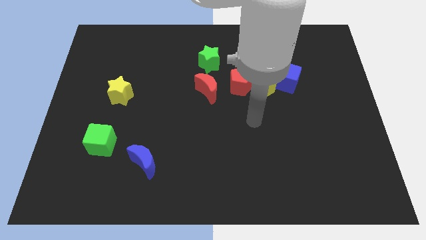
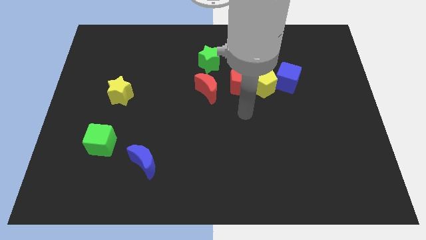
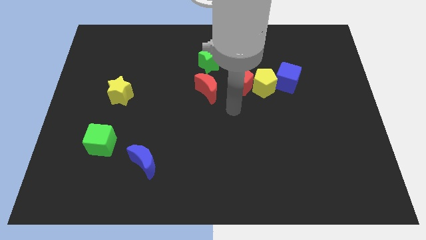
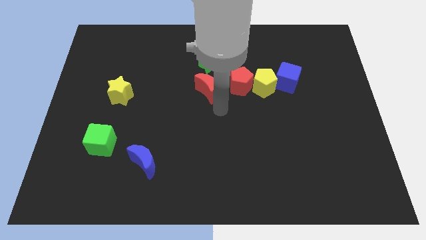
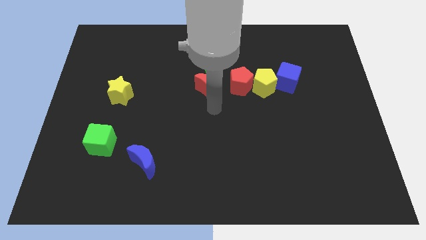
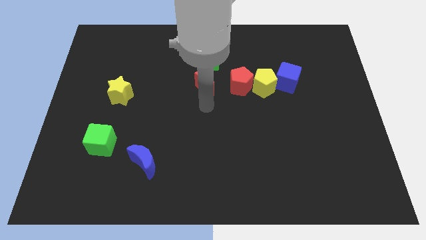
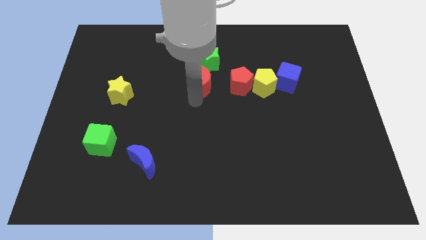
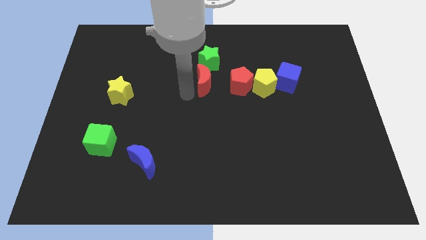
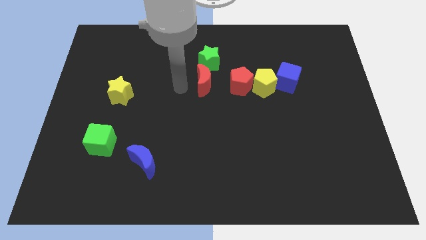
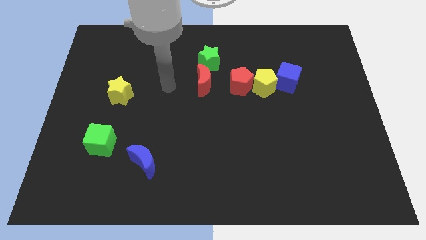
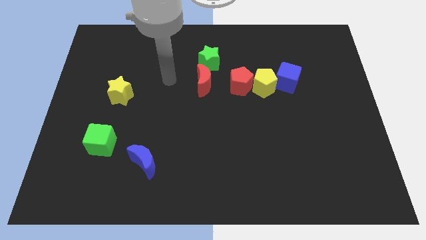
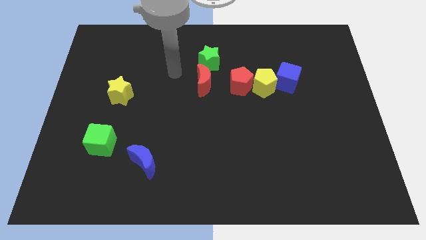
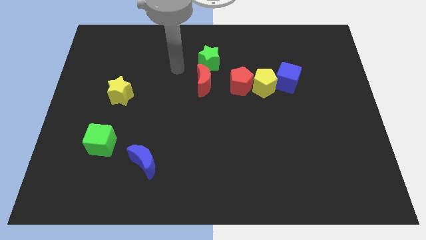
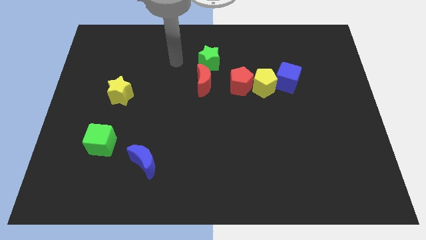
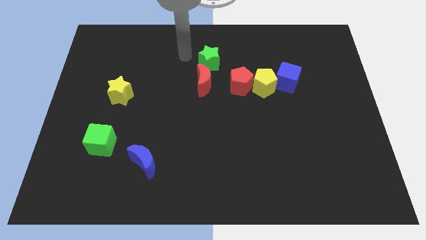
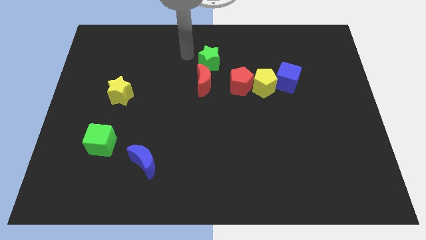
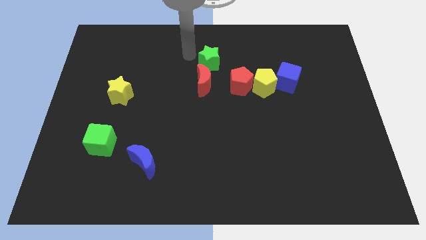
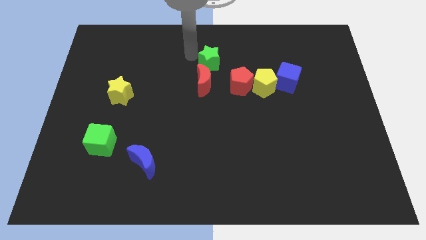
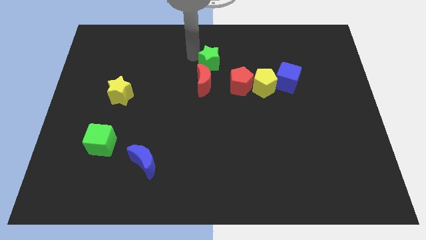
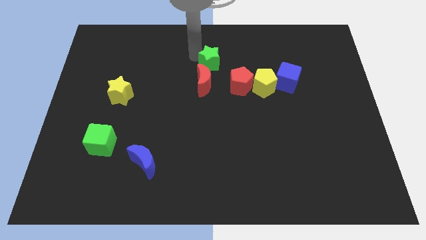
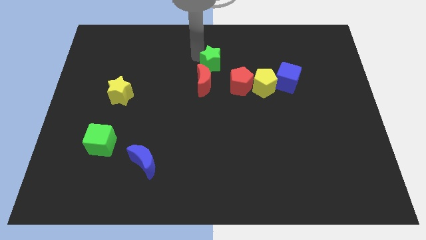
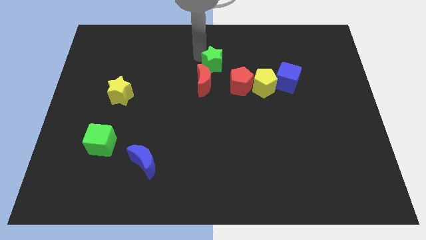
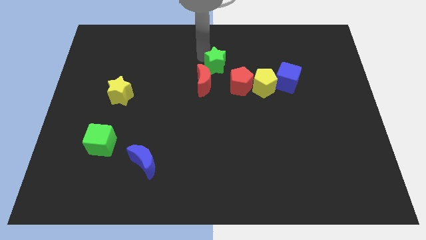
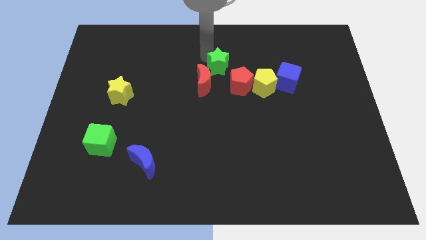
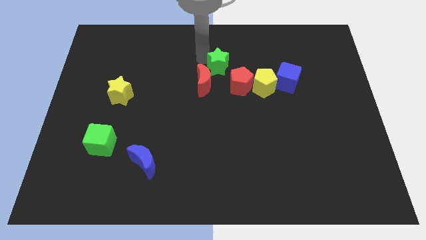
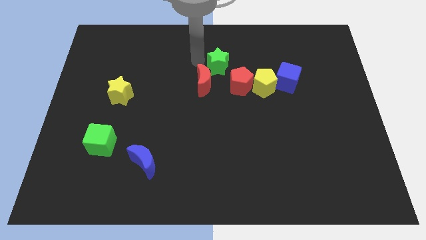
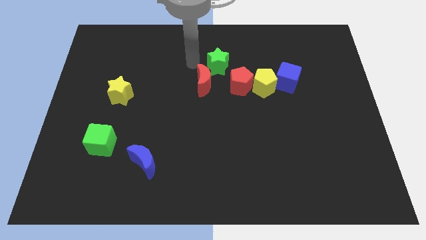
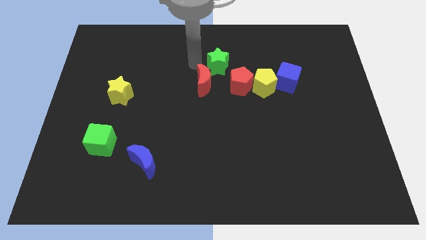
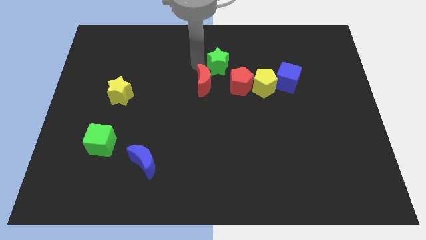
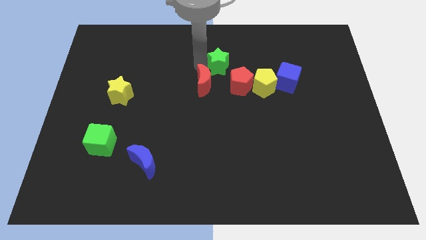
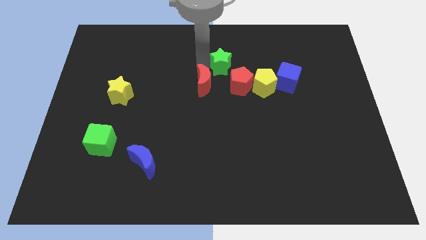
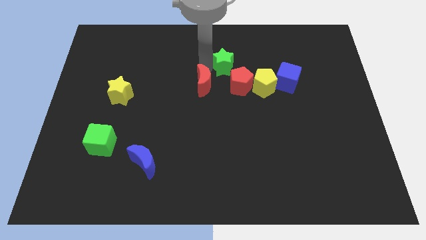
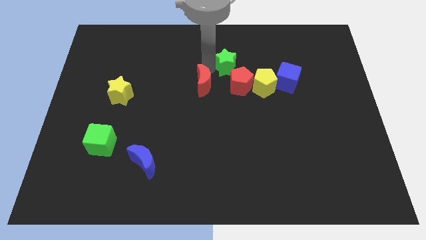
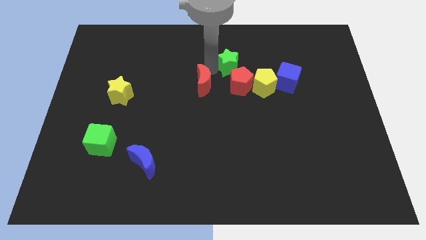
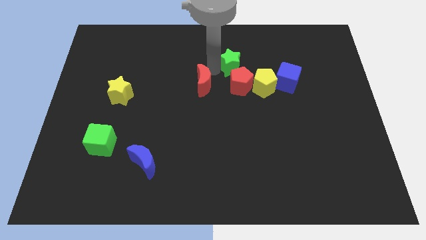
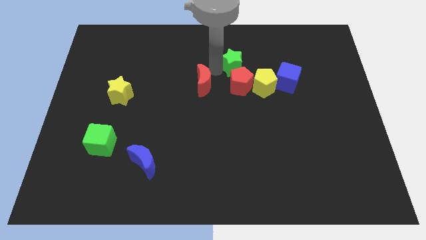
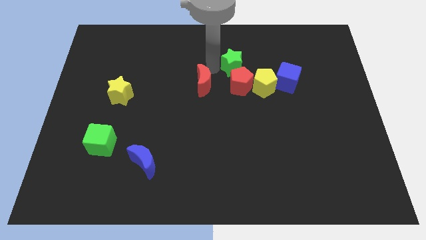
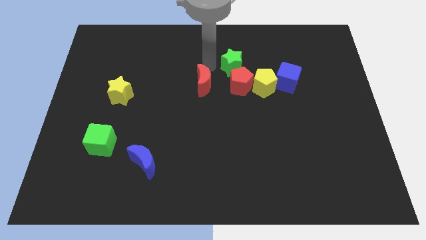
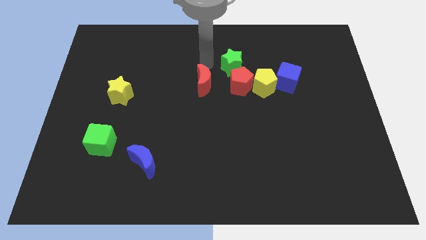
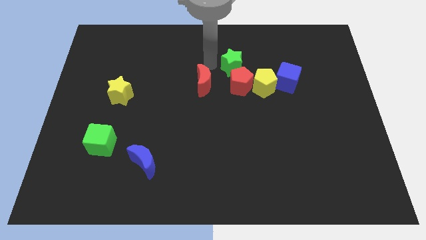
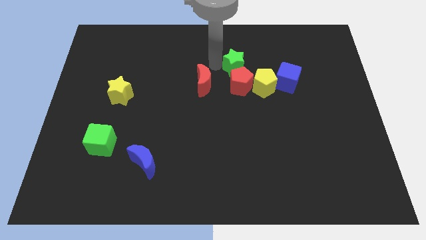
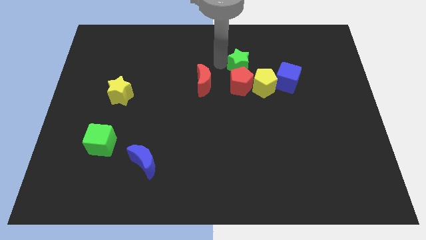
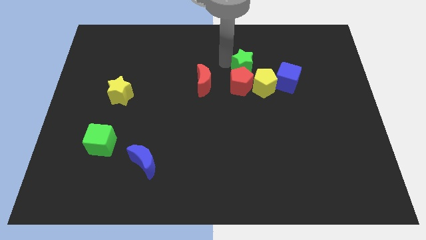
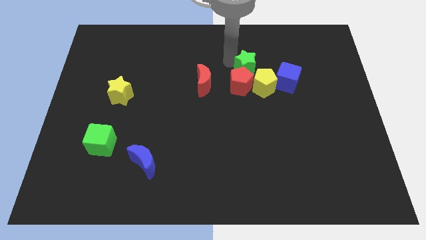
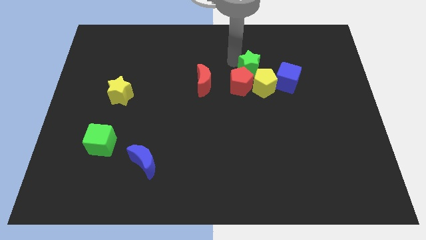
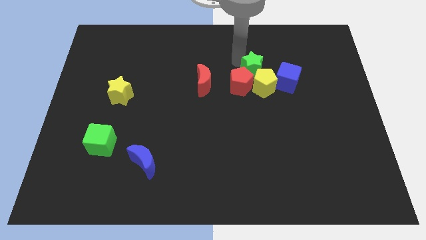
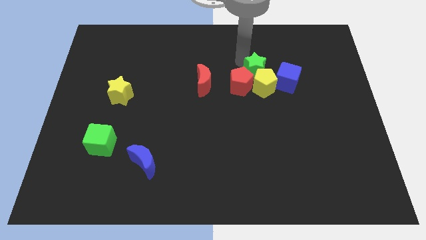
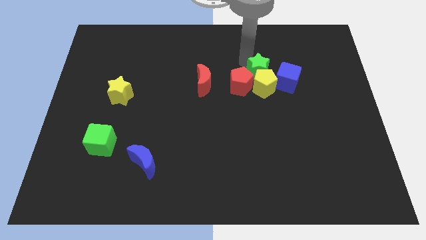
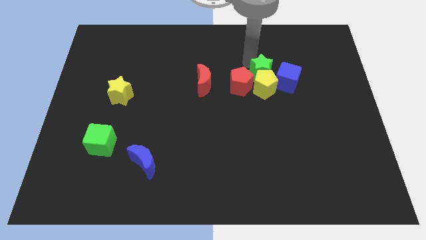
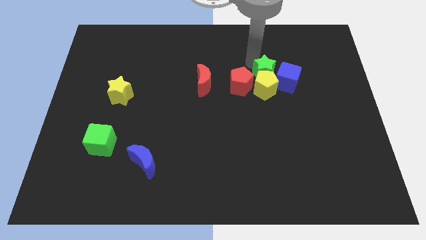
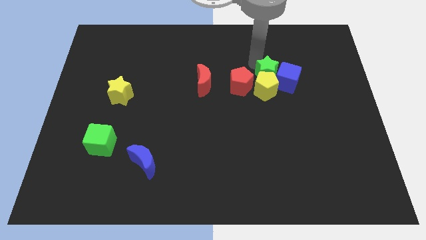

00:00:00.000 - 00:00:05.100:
push the green star towards the blue cube

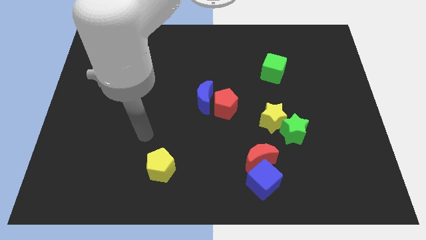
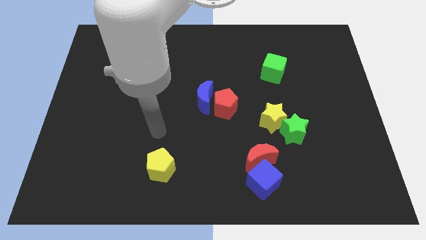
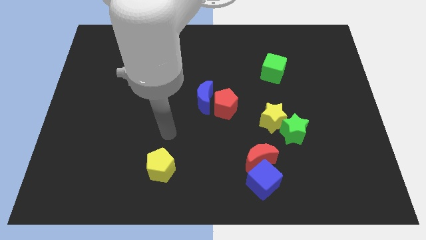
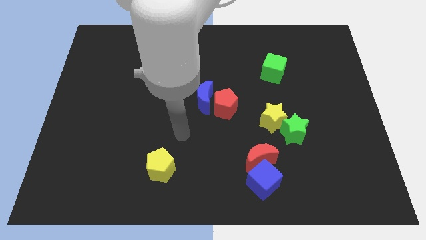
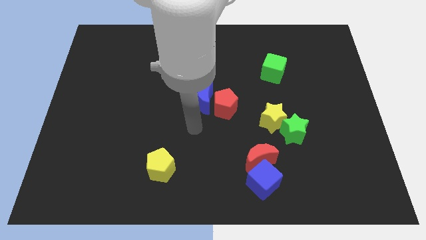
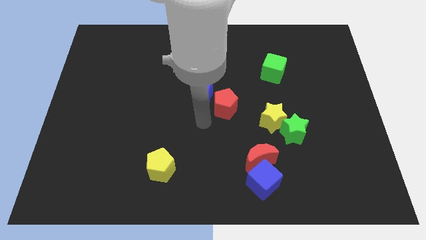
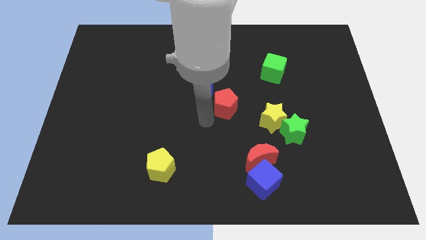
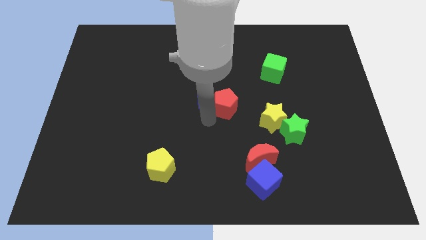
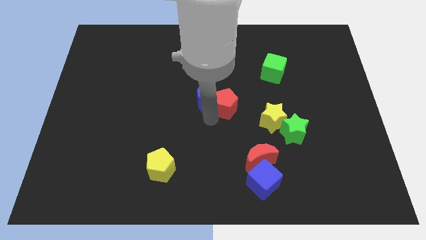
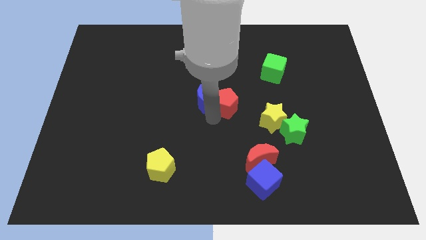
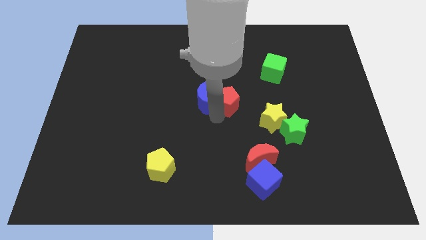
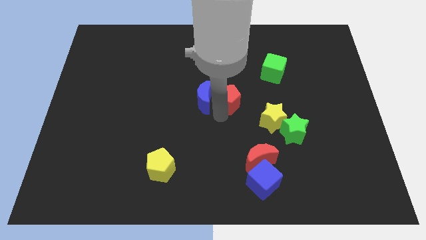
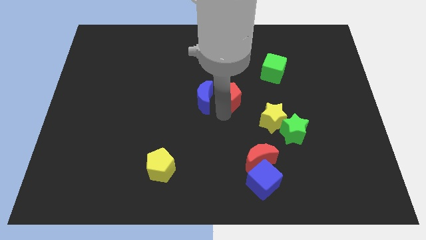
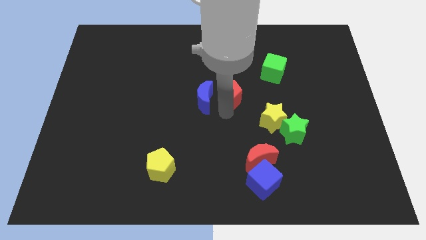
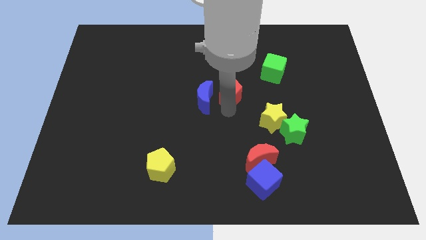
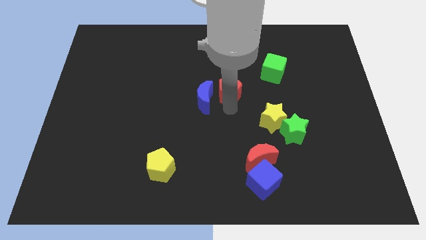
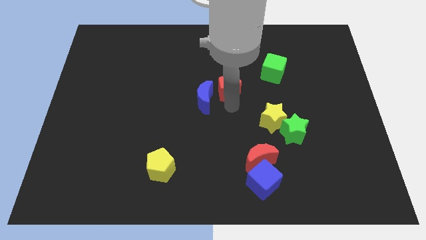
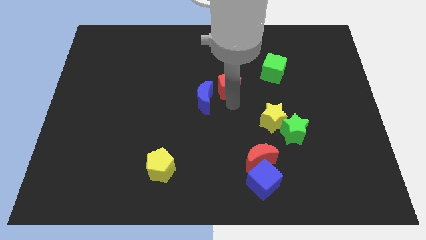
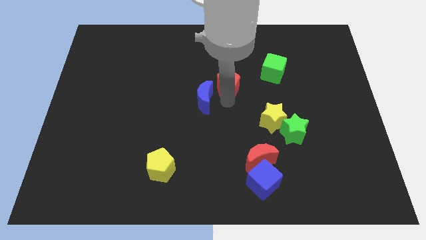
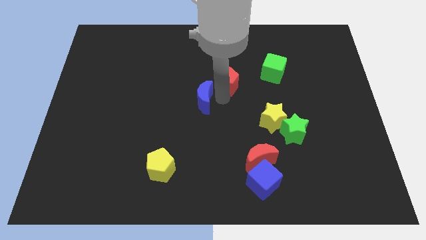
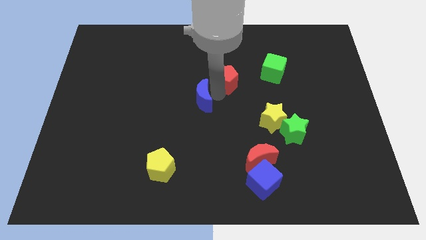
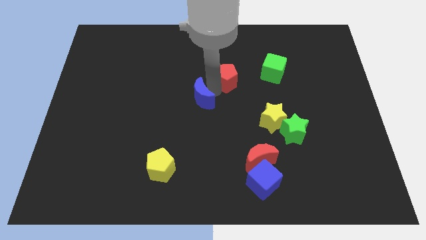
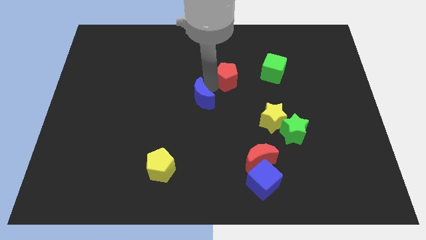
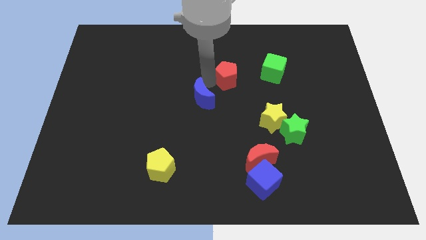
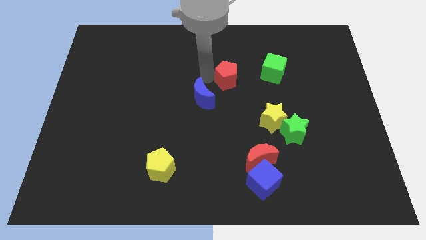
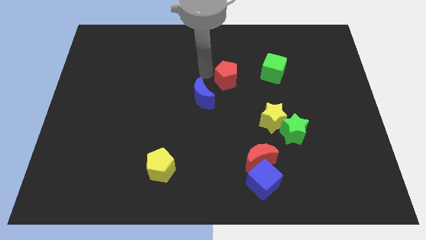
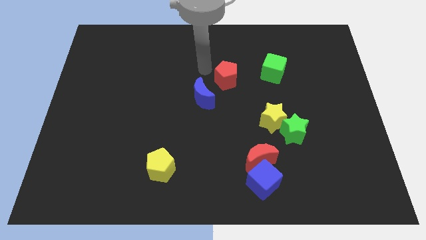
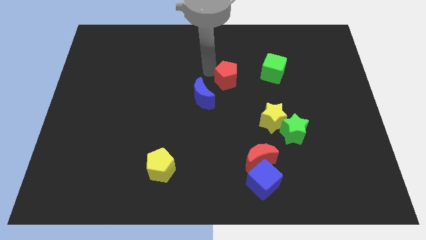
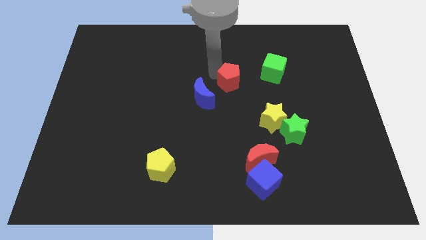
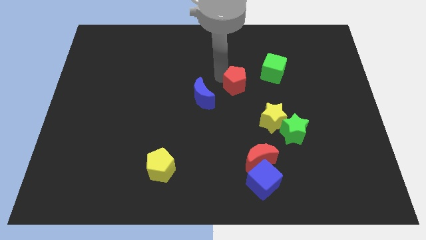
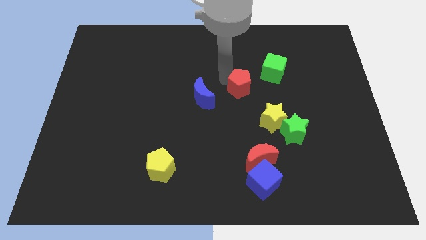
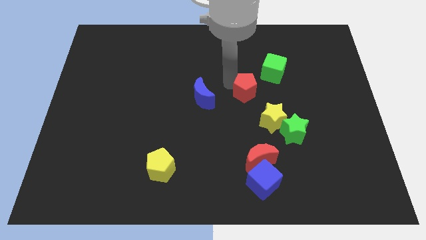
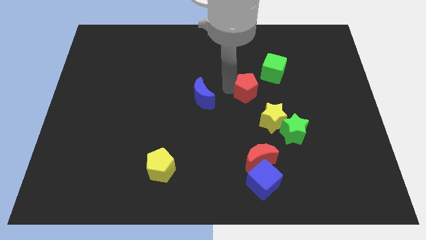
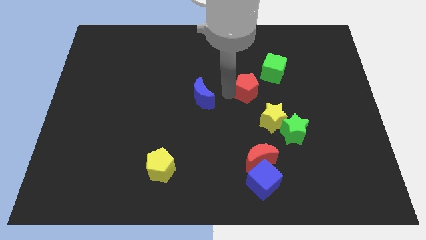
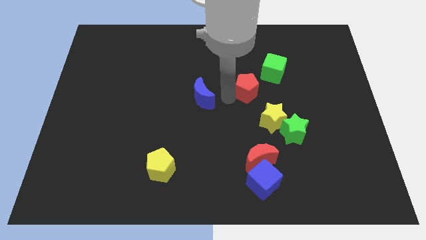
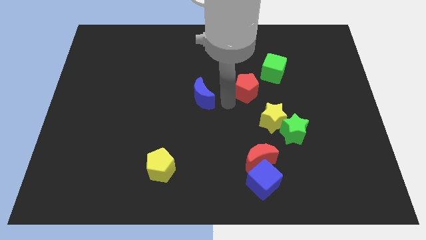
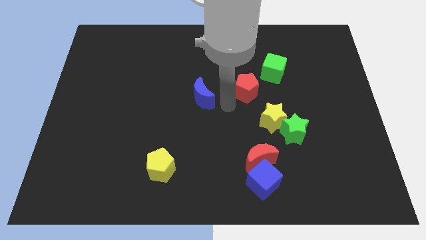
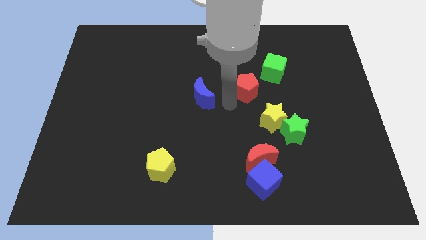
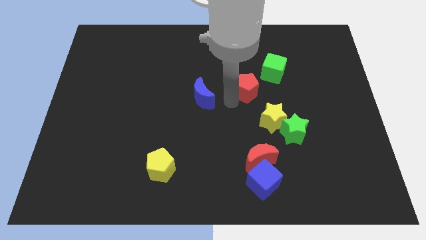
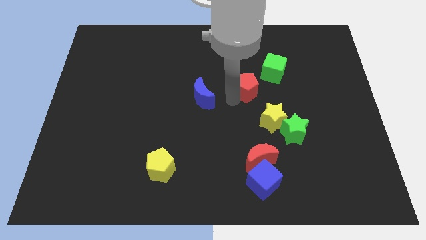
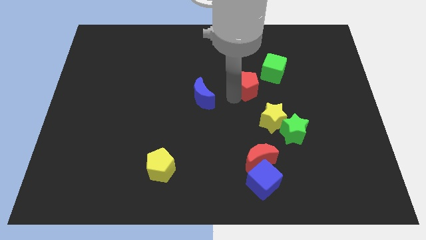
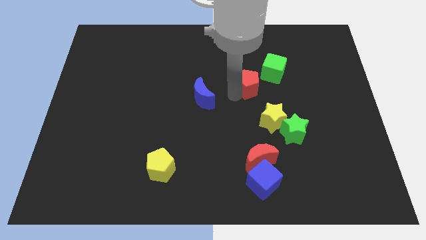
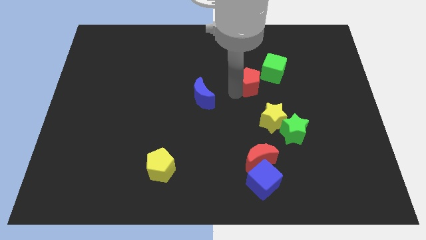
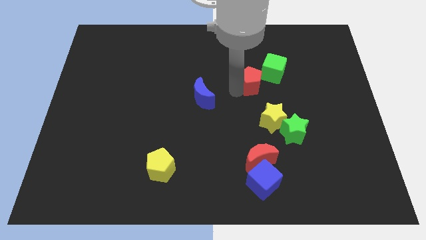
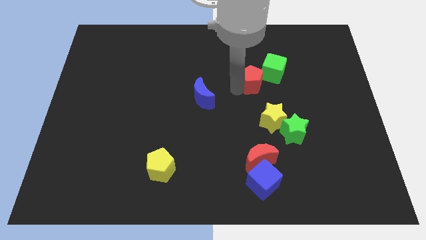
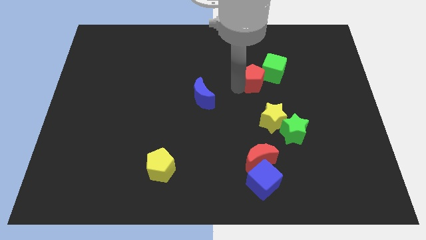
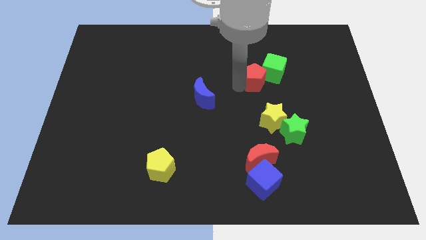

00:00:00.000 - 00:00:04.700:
slide the red pentagon to the green cube
